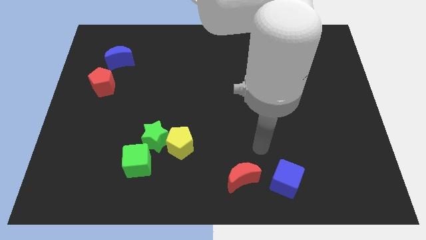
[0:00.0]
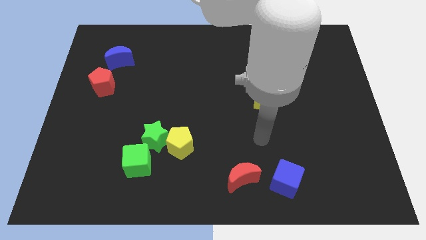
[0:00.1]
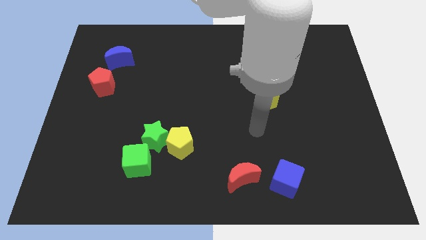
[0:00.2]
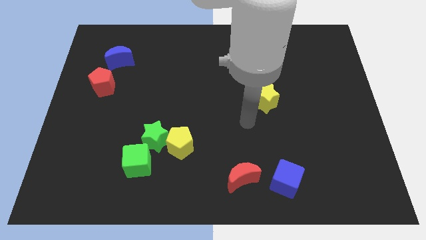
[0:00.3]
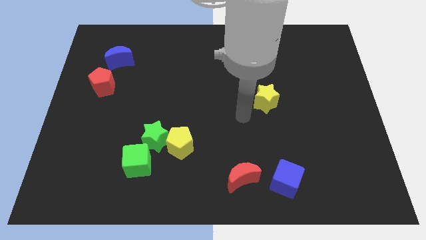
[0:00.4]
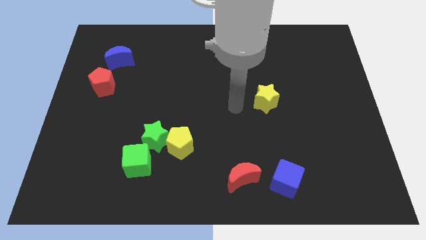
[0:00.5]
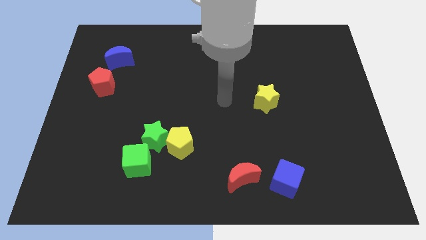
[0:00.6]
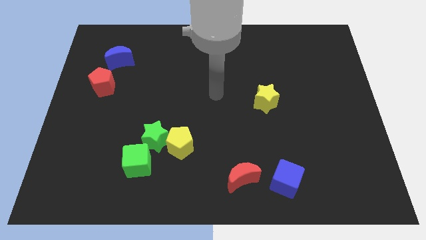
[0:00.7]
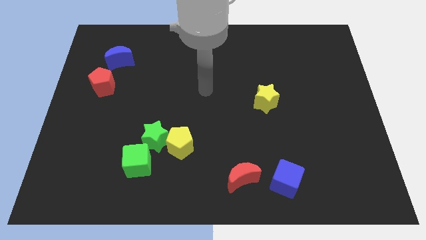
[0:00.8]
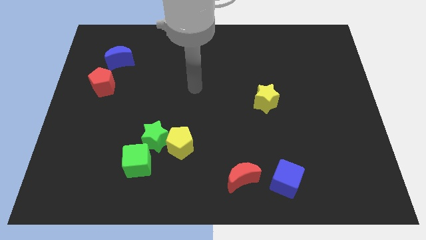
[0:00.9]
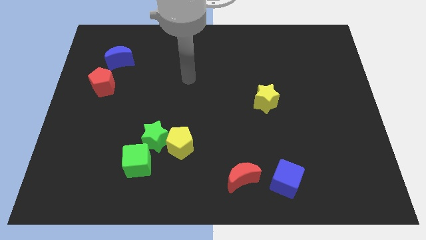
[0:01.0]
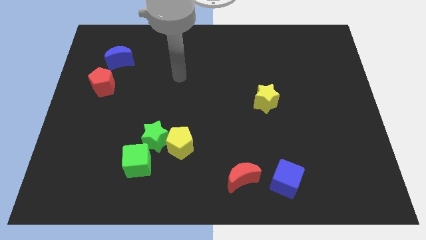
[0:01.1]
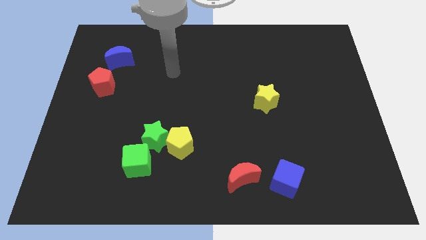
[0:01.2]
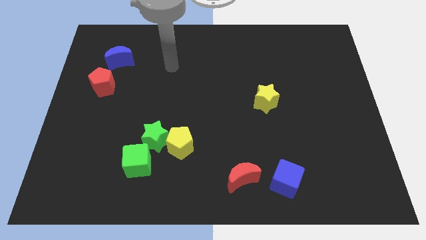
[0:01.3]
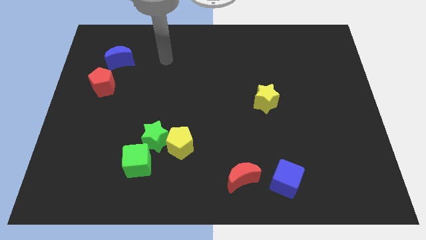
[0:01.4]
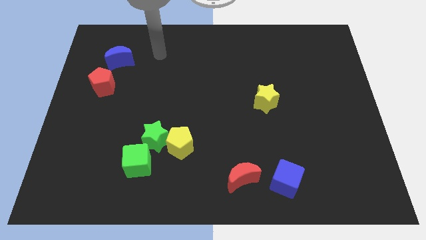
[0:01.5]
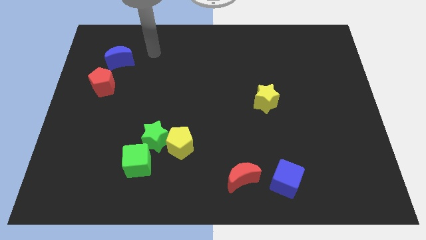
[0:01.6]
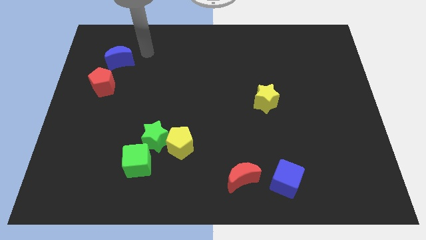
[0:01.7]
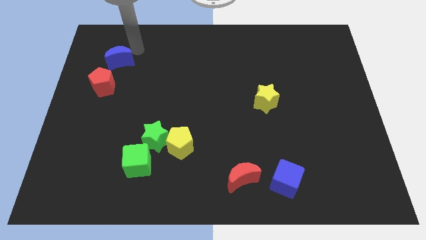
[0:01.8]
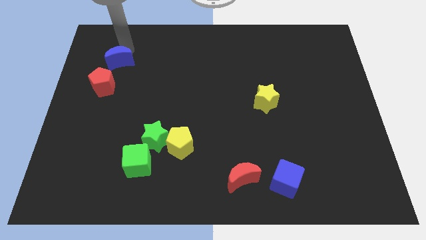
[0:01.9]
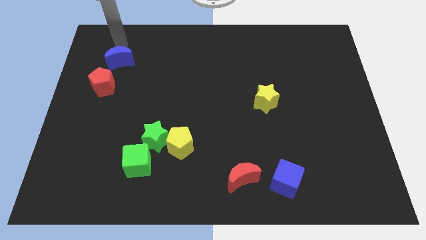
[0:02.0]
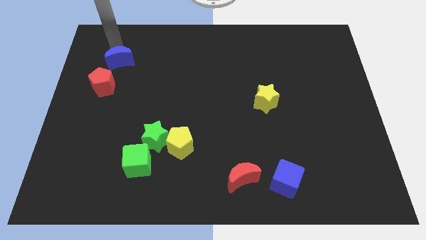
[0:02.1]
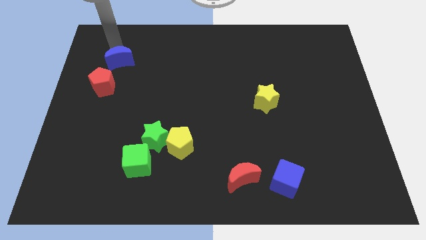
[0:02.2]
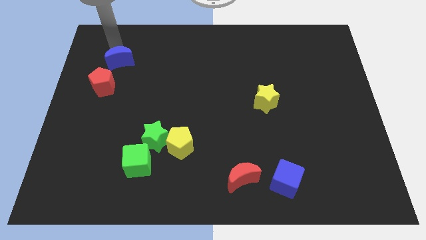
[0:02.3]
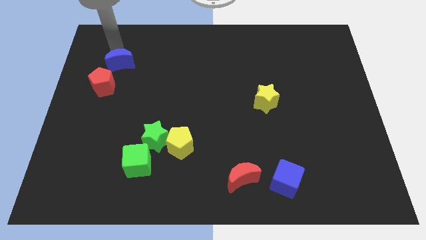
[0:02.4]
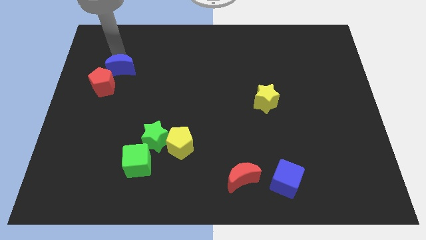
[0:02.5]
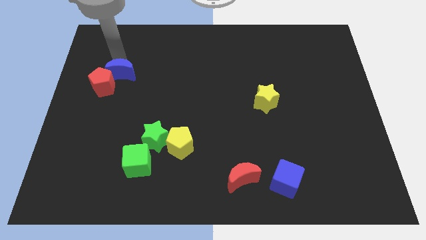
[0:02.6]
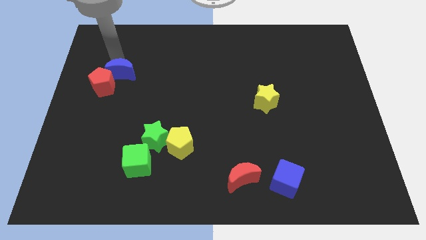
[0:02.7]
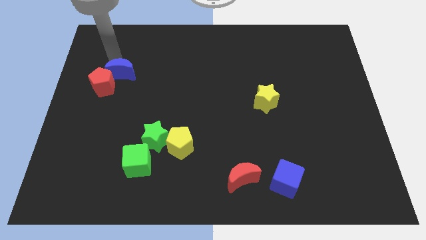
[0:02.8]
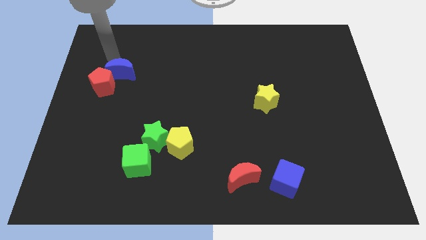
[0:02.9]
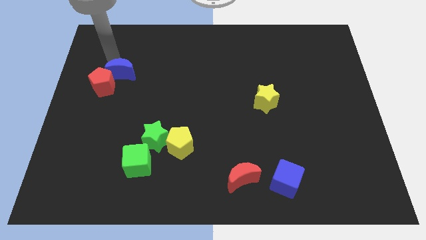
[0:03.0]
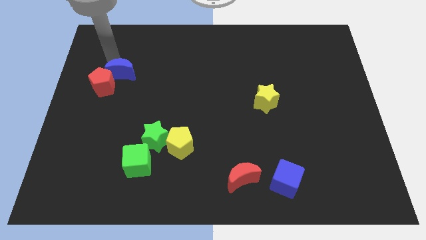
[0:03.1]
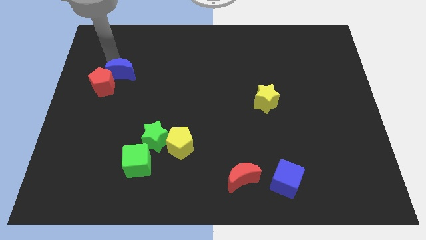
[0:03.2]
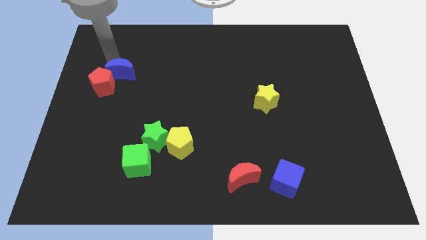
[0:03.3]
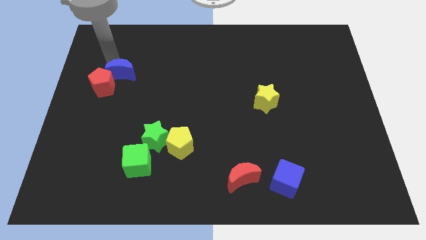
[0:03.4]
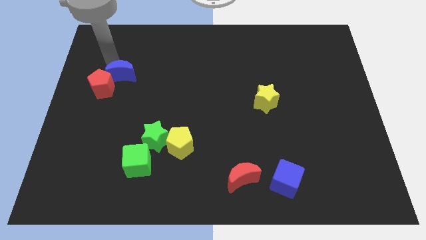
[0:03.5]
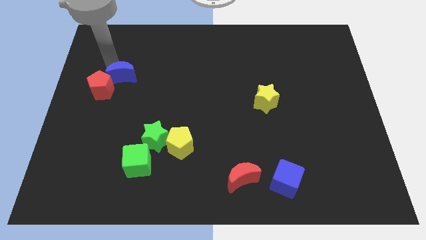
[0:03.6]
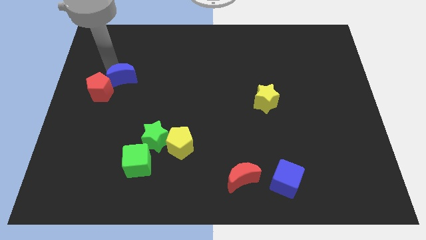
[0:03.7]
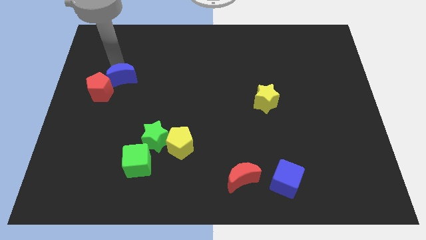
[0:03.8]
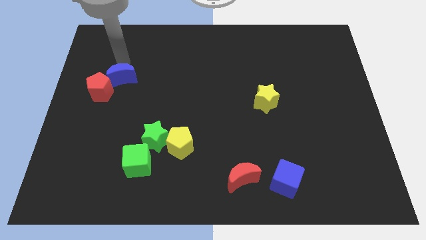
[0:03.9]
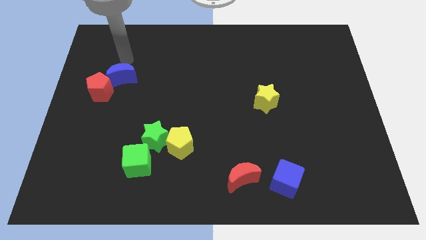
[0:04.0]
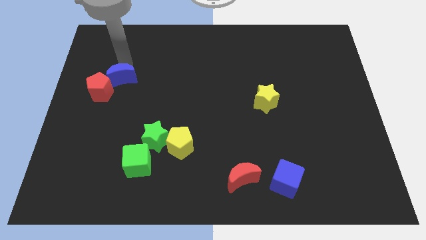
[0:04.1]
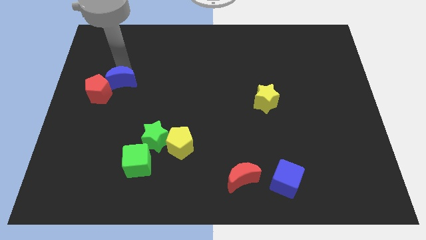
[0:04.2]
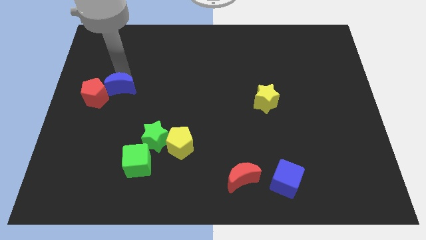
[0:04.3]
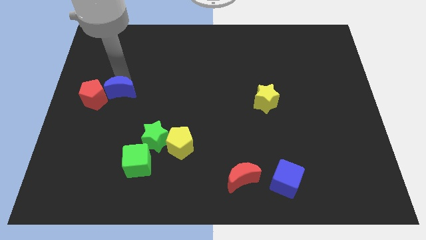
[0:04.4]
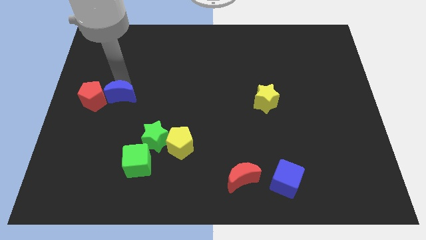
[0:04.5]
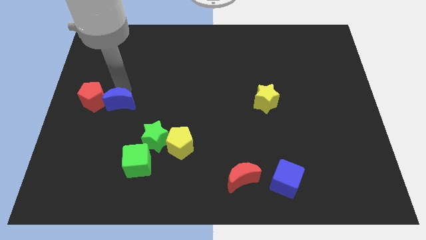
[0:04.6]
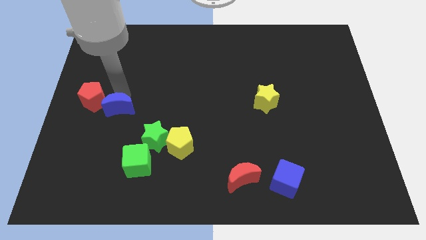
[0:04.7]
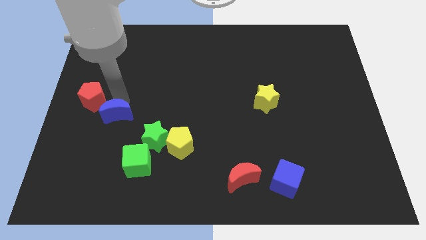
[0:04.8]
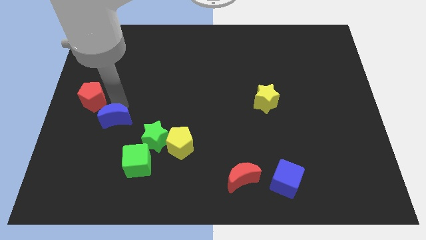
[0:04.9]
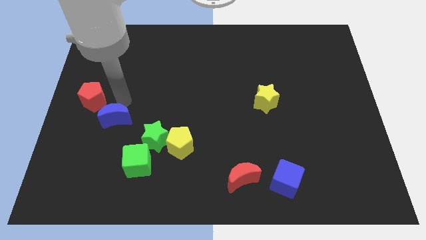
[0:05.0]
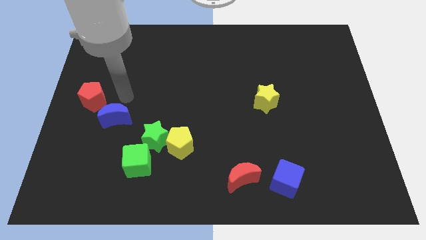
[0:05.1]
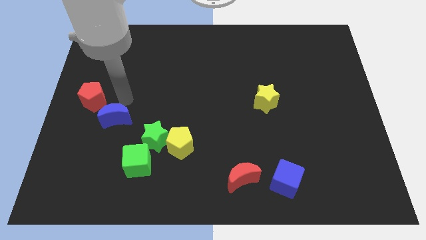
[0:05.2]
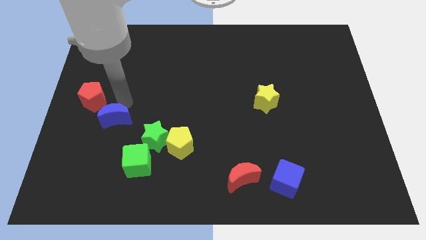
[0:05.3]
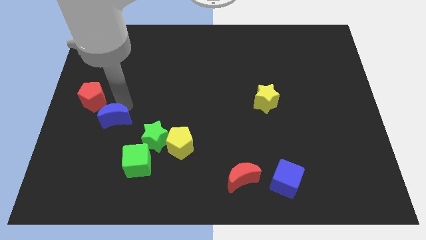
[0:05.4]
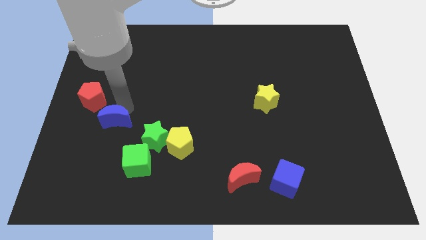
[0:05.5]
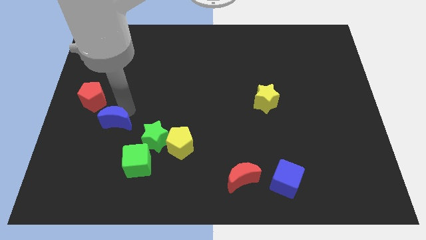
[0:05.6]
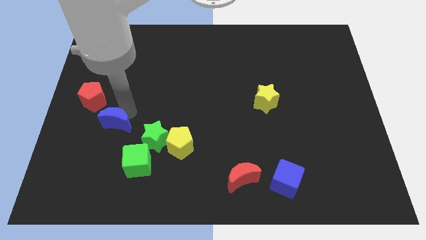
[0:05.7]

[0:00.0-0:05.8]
push the blue moon down

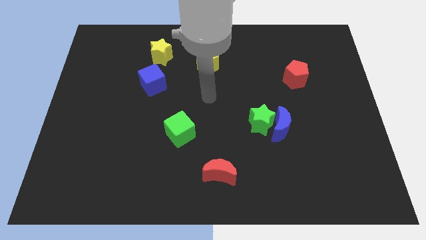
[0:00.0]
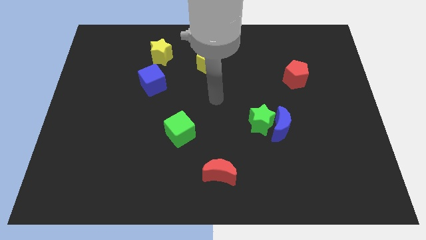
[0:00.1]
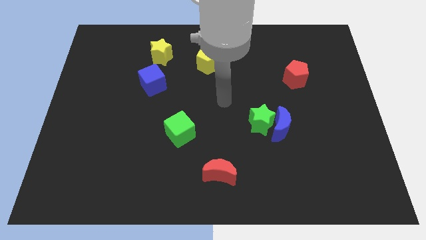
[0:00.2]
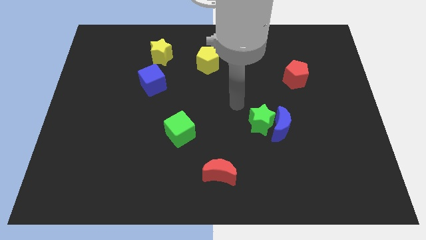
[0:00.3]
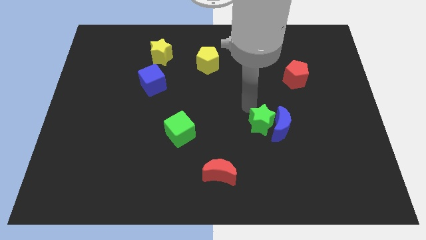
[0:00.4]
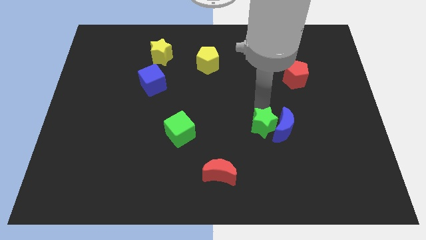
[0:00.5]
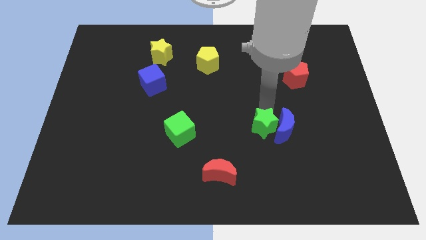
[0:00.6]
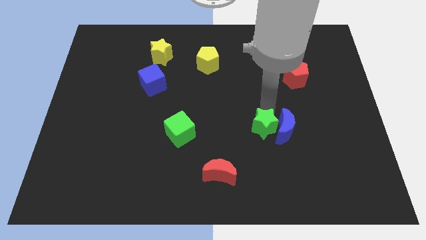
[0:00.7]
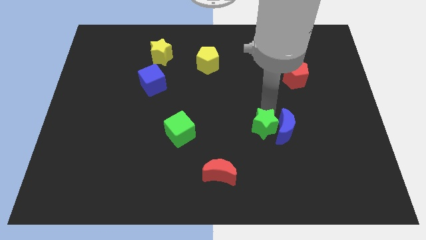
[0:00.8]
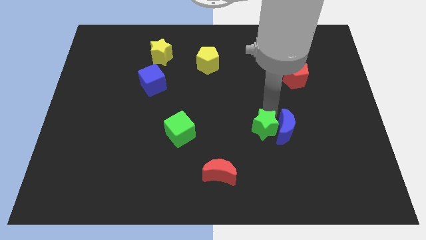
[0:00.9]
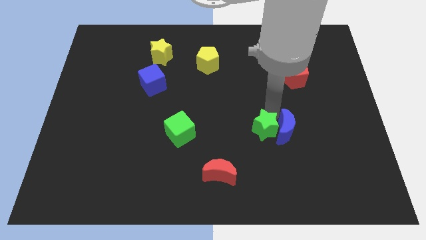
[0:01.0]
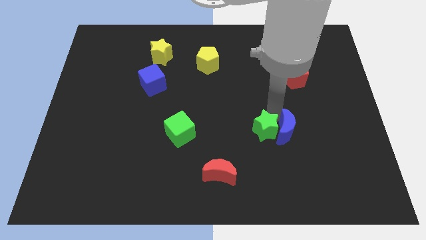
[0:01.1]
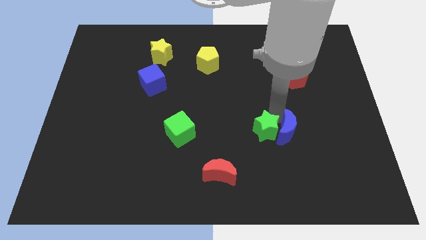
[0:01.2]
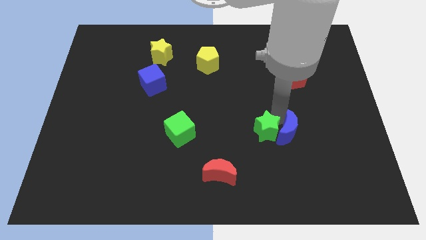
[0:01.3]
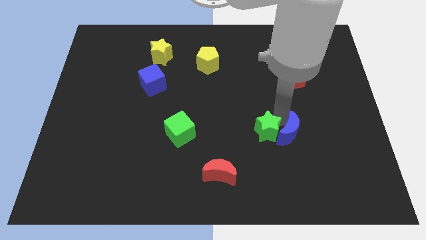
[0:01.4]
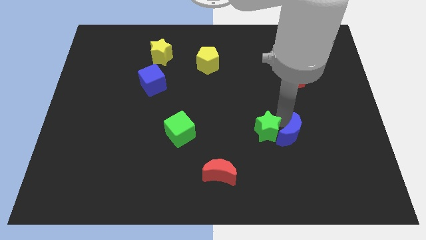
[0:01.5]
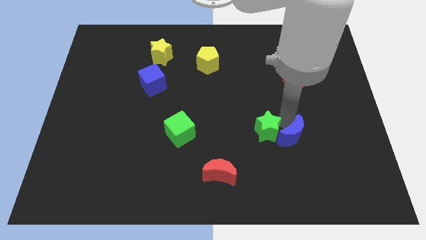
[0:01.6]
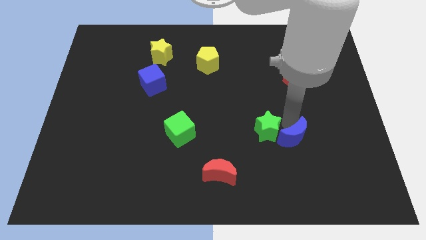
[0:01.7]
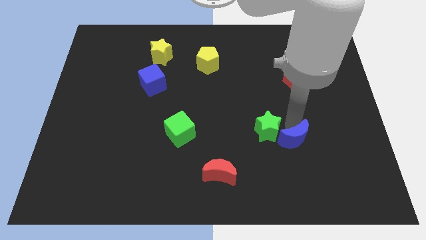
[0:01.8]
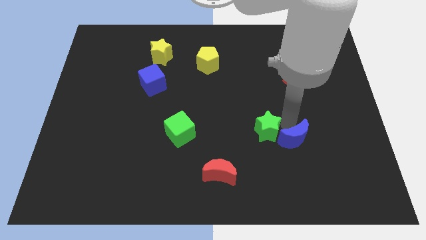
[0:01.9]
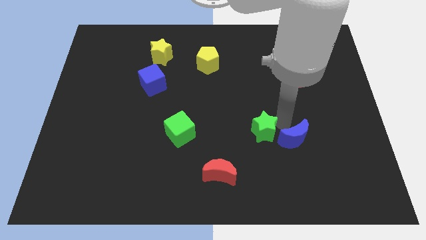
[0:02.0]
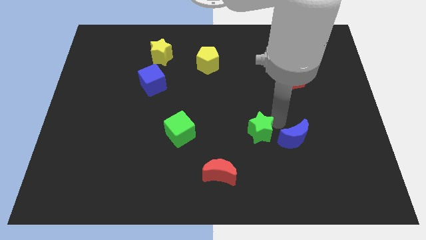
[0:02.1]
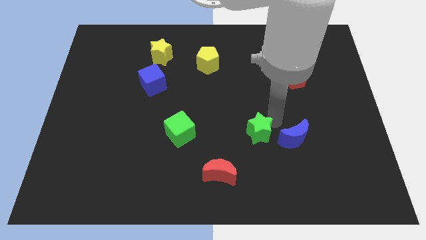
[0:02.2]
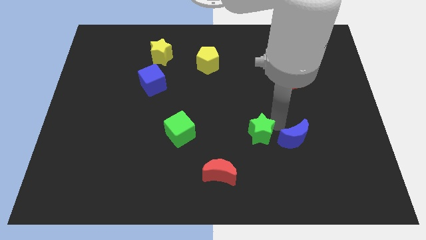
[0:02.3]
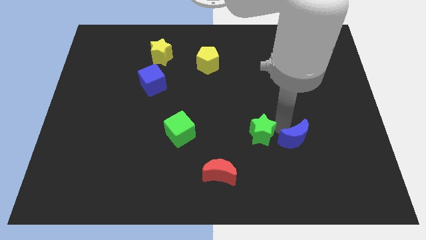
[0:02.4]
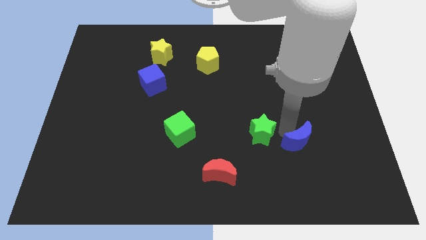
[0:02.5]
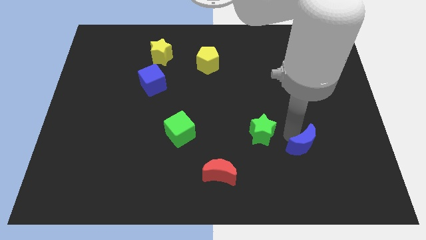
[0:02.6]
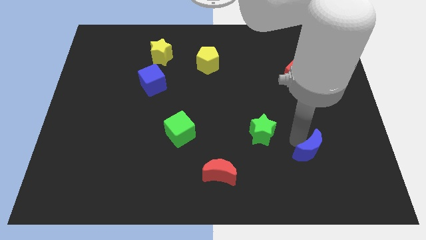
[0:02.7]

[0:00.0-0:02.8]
slightly slide the blue moon down and to the right
